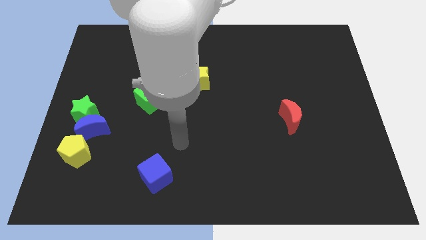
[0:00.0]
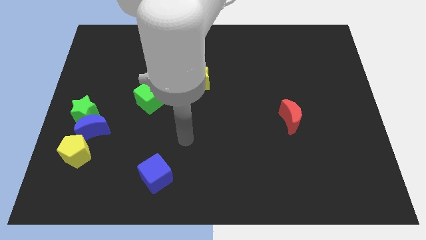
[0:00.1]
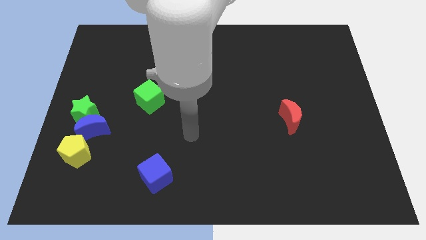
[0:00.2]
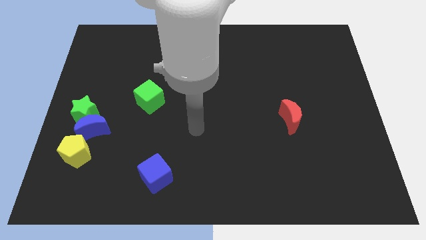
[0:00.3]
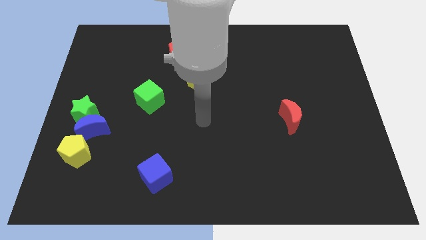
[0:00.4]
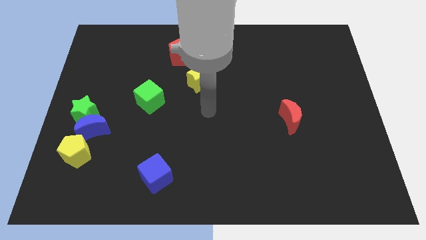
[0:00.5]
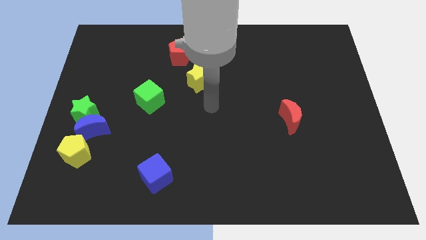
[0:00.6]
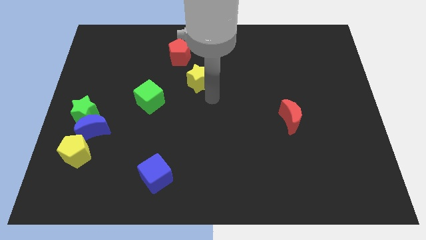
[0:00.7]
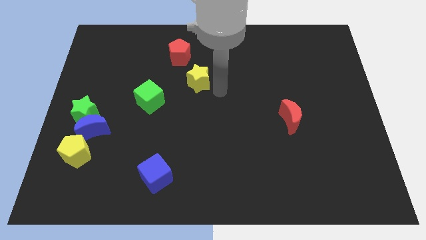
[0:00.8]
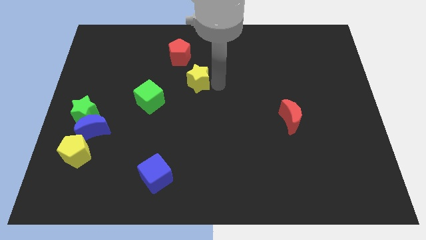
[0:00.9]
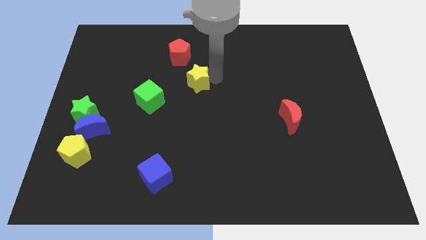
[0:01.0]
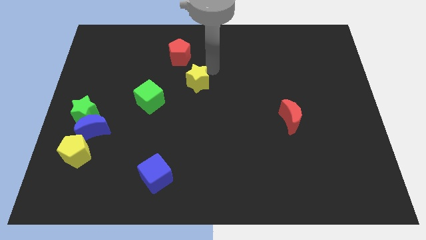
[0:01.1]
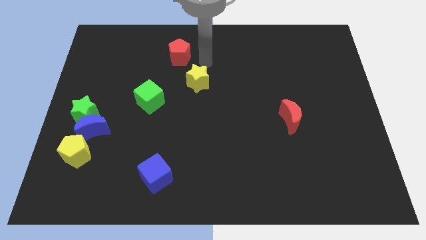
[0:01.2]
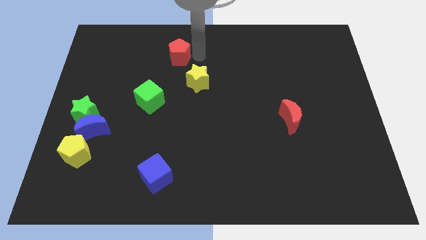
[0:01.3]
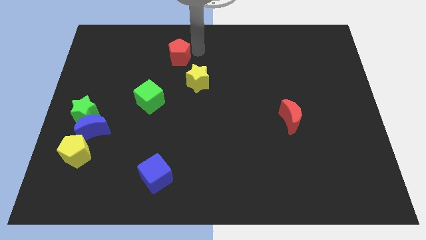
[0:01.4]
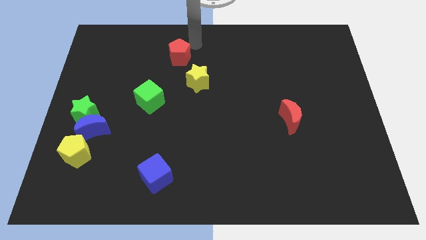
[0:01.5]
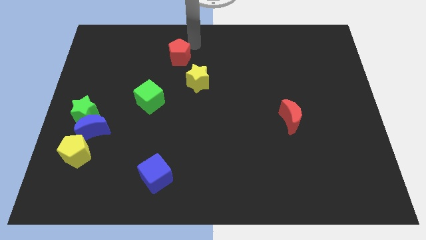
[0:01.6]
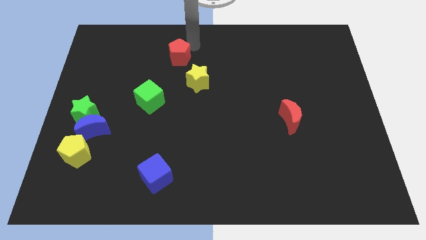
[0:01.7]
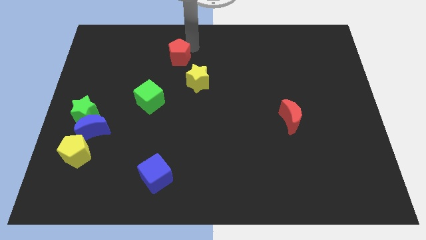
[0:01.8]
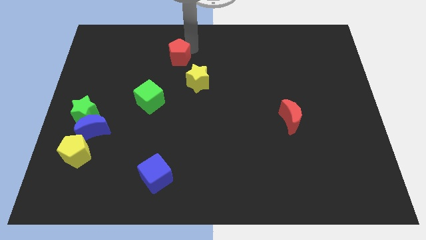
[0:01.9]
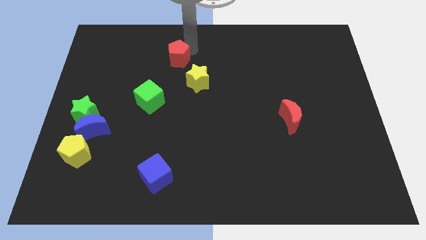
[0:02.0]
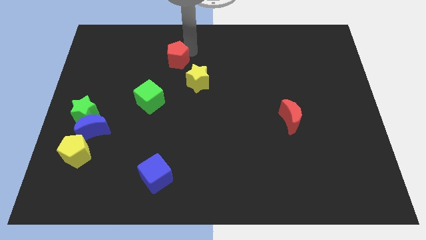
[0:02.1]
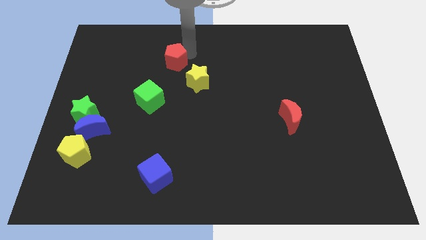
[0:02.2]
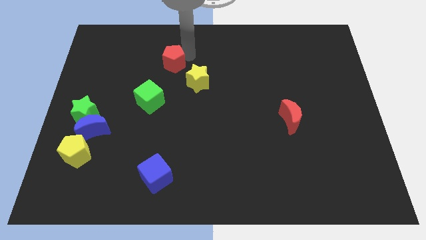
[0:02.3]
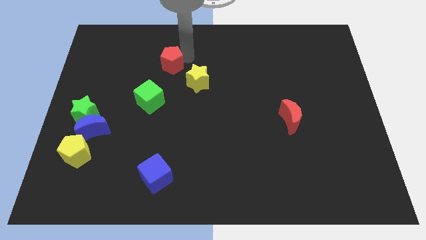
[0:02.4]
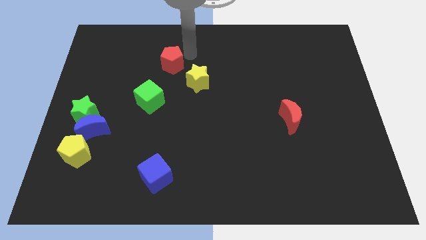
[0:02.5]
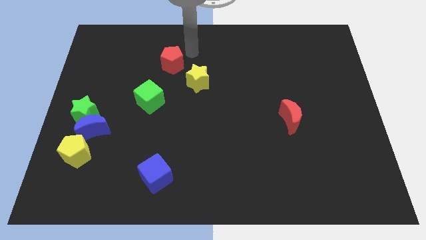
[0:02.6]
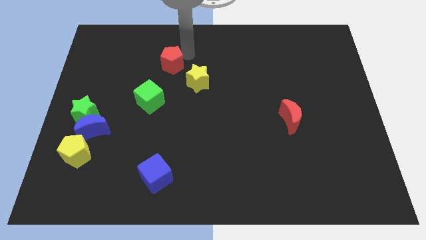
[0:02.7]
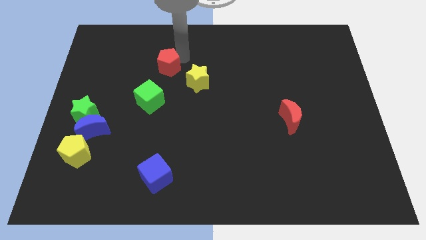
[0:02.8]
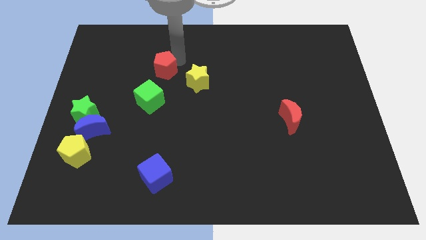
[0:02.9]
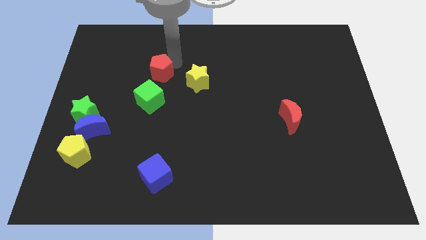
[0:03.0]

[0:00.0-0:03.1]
slide the red pentagon down and to the left a little bit

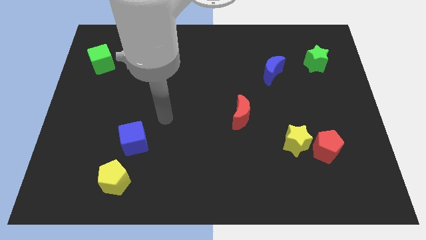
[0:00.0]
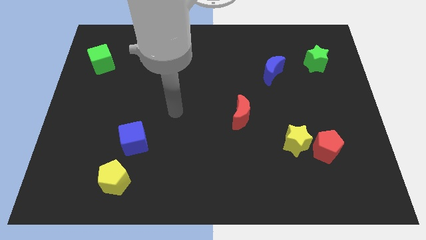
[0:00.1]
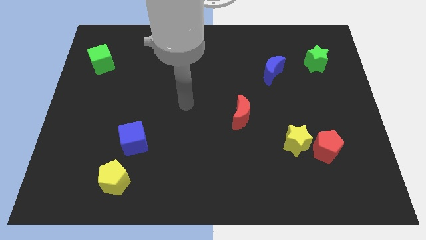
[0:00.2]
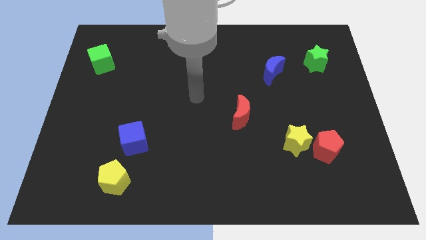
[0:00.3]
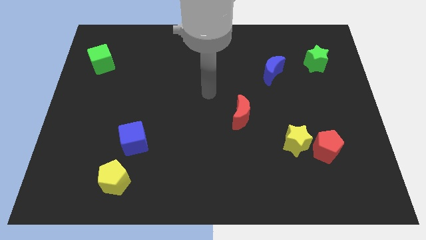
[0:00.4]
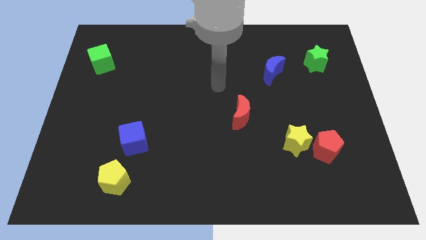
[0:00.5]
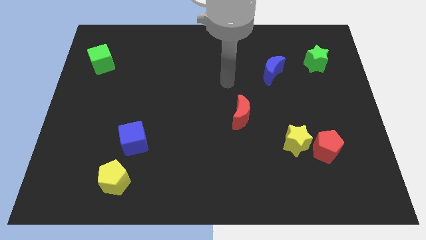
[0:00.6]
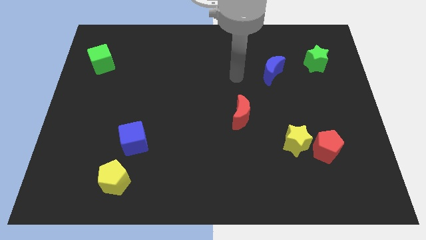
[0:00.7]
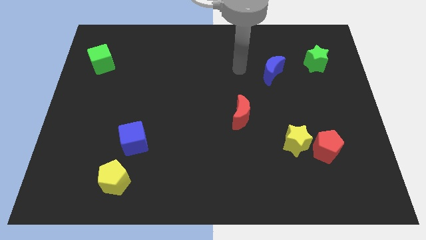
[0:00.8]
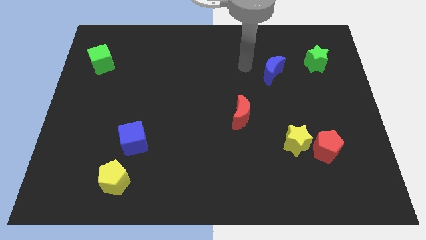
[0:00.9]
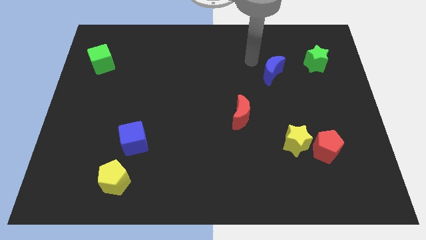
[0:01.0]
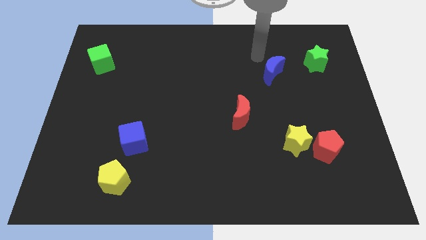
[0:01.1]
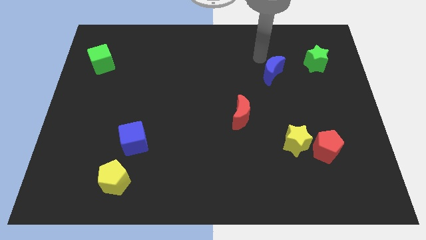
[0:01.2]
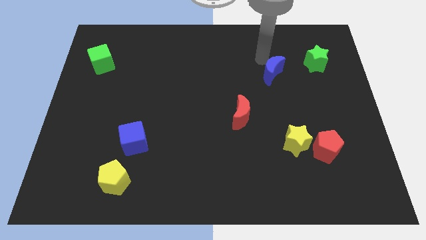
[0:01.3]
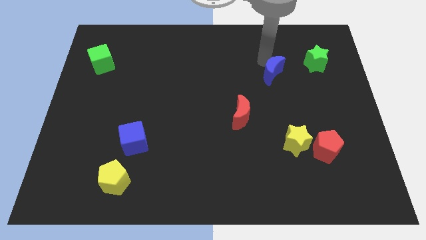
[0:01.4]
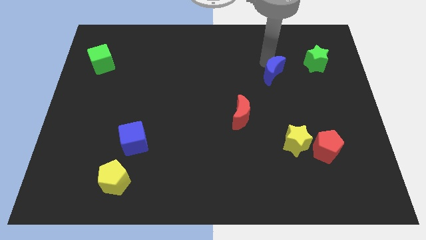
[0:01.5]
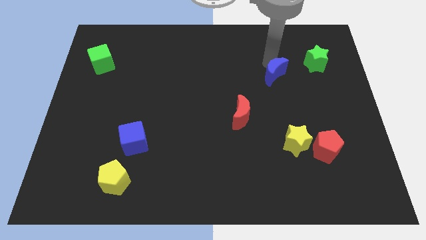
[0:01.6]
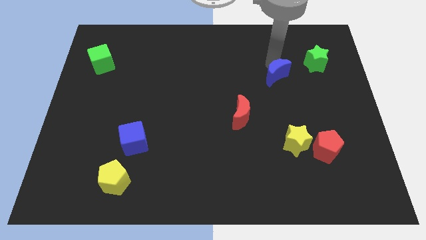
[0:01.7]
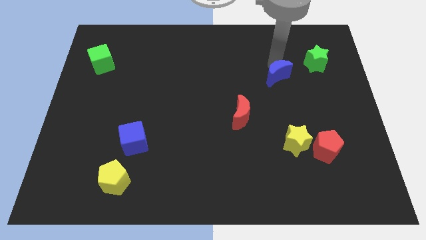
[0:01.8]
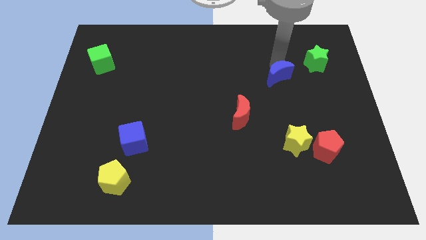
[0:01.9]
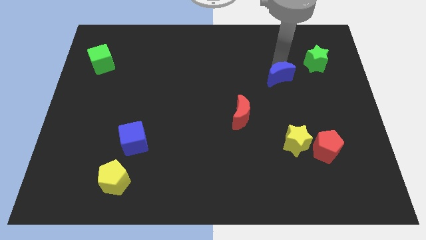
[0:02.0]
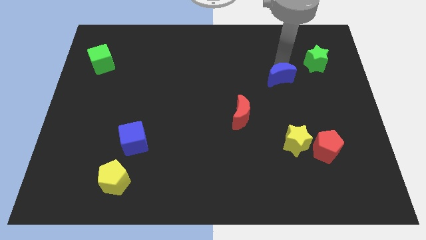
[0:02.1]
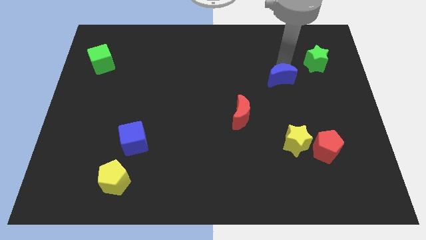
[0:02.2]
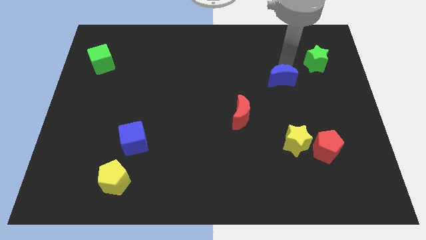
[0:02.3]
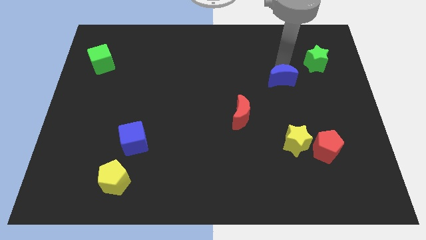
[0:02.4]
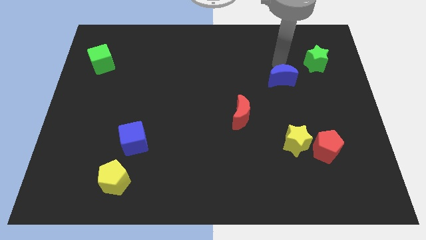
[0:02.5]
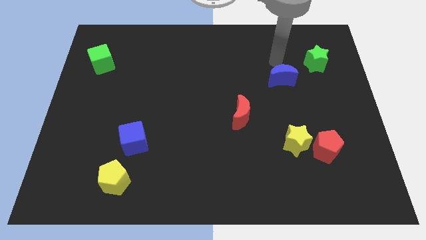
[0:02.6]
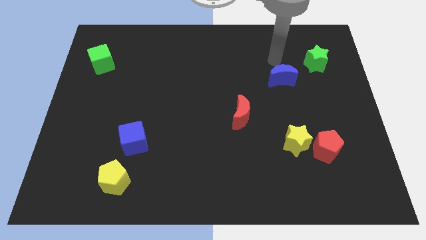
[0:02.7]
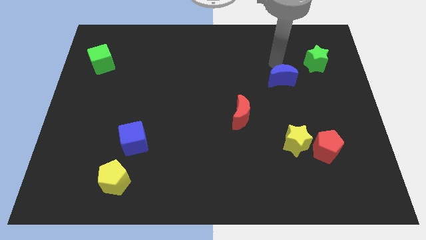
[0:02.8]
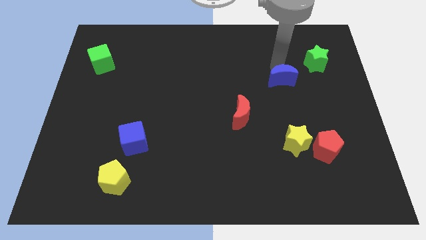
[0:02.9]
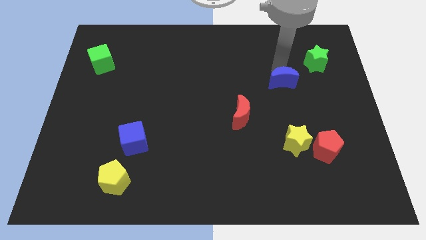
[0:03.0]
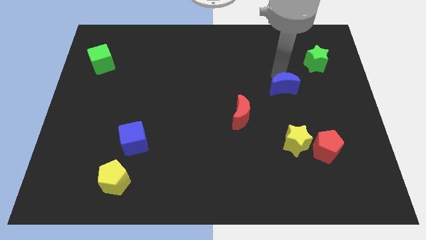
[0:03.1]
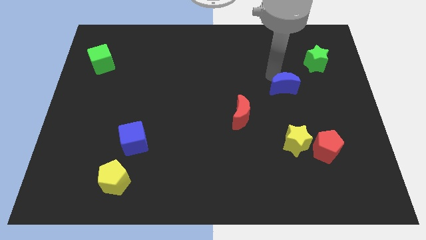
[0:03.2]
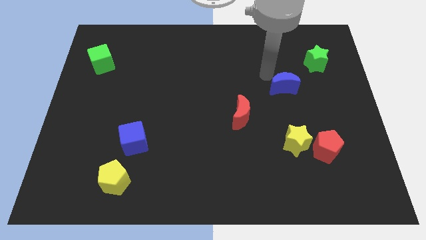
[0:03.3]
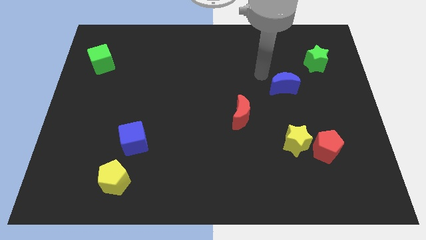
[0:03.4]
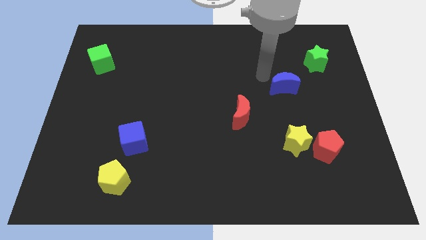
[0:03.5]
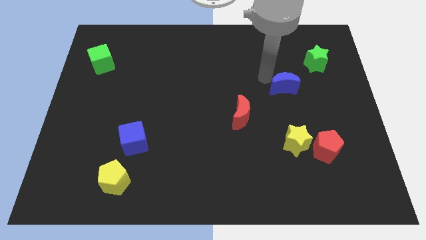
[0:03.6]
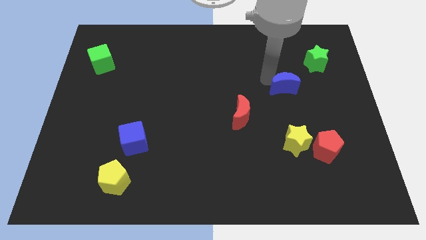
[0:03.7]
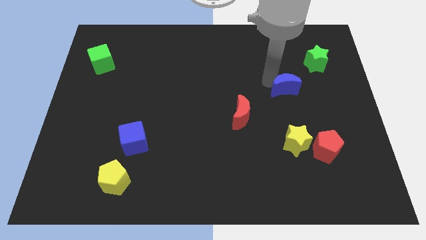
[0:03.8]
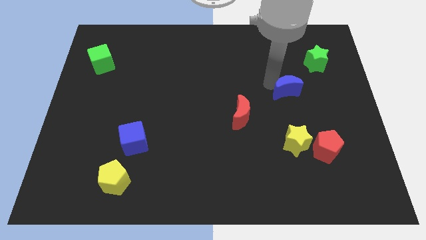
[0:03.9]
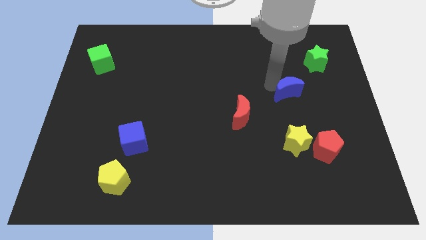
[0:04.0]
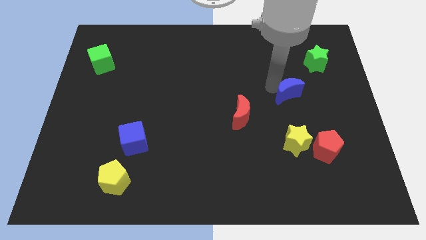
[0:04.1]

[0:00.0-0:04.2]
push the blue moon somewhat diagonally down and to the right

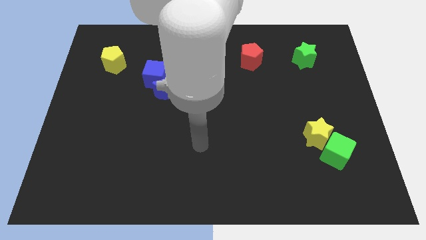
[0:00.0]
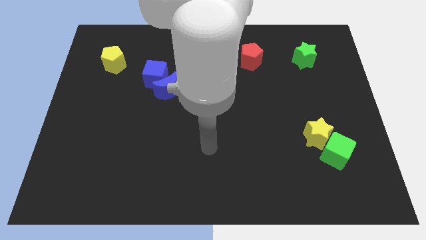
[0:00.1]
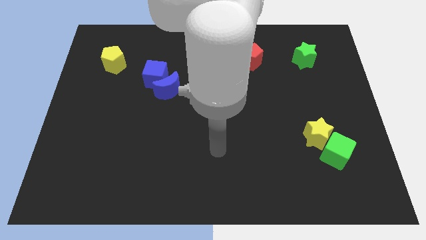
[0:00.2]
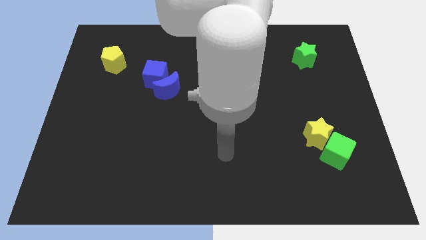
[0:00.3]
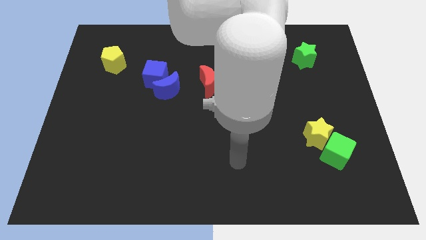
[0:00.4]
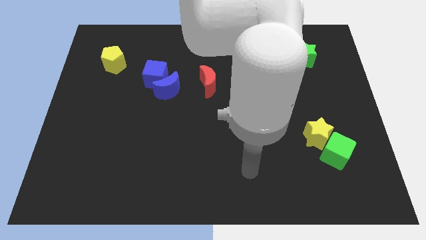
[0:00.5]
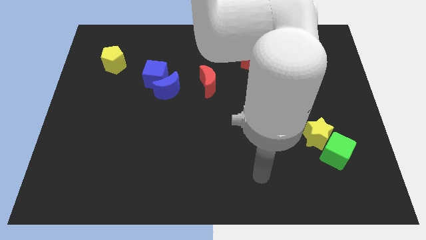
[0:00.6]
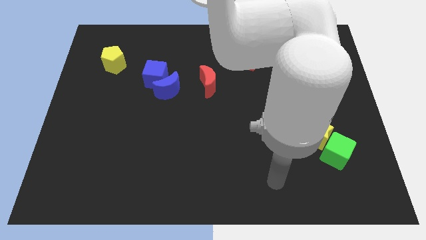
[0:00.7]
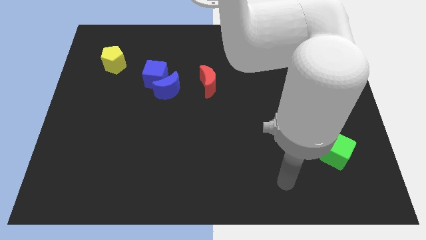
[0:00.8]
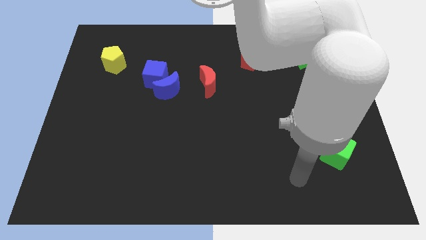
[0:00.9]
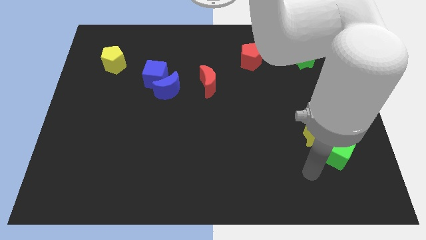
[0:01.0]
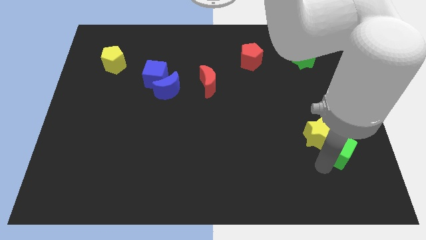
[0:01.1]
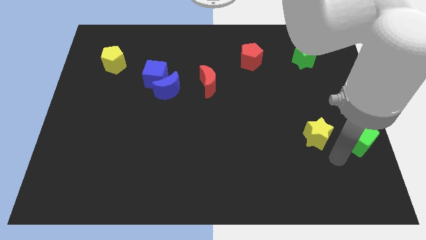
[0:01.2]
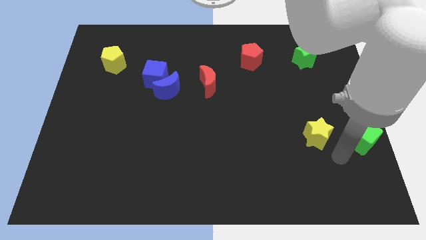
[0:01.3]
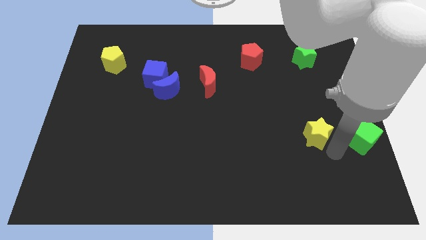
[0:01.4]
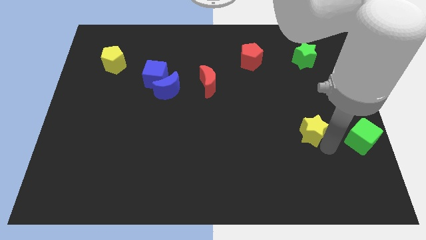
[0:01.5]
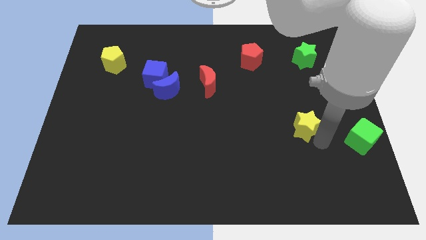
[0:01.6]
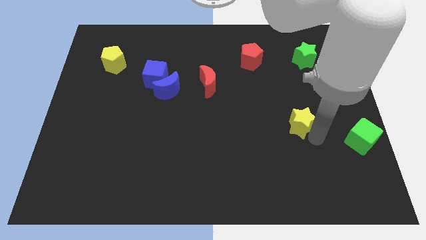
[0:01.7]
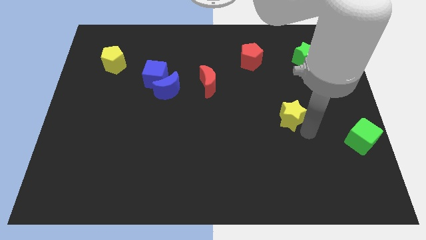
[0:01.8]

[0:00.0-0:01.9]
push the yellow star up and to the left diagonally somewhat
